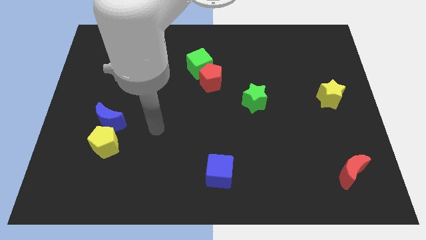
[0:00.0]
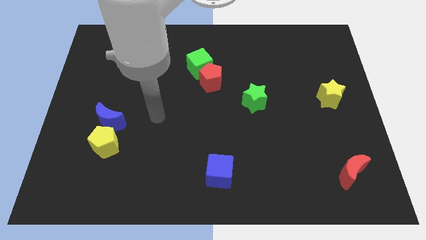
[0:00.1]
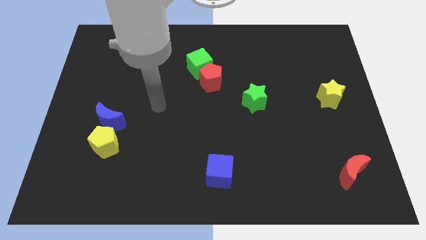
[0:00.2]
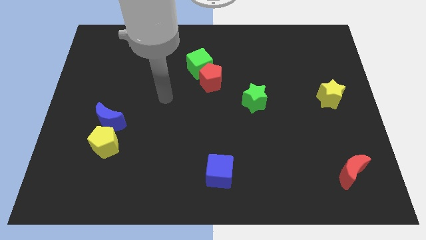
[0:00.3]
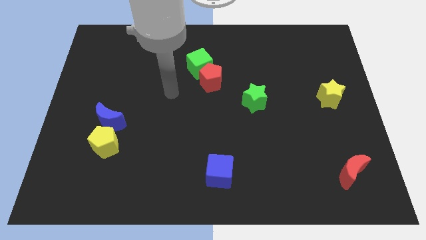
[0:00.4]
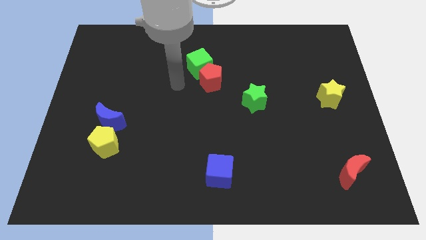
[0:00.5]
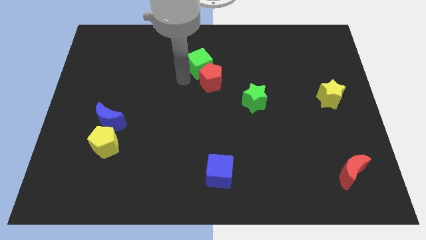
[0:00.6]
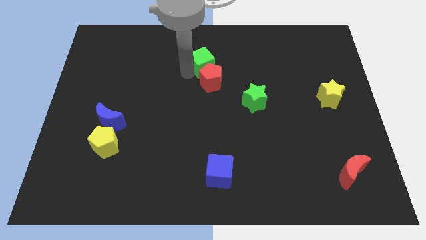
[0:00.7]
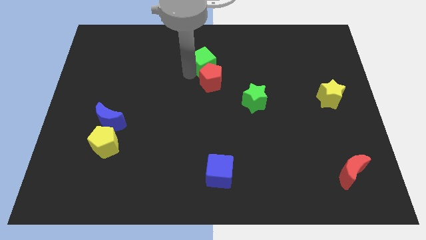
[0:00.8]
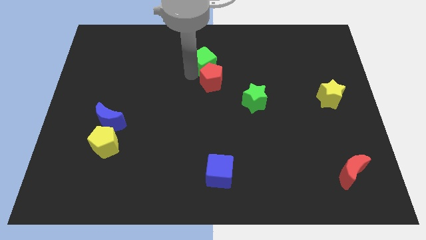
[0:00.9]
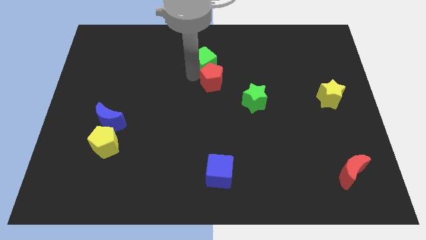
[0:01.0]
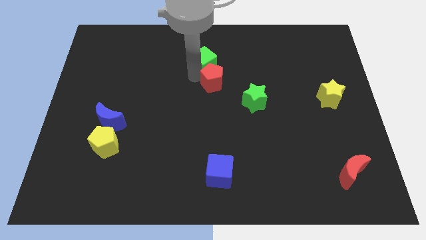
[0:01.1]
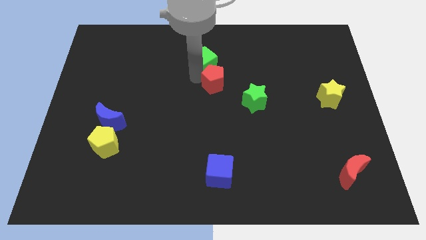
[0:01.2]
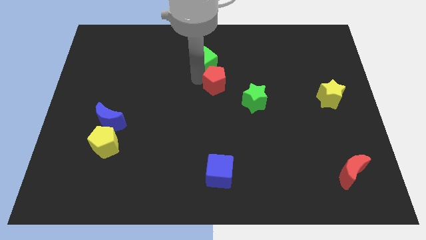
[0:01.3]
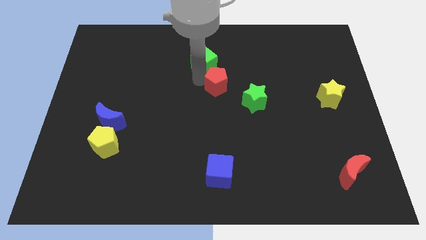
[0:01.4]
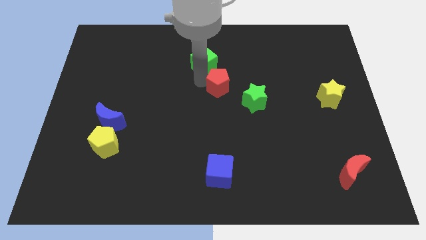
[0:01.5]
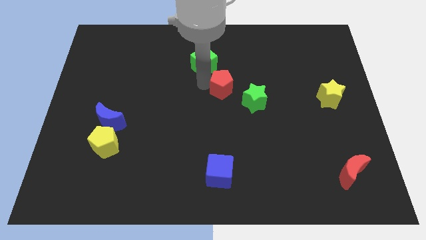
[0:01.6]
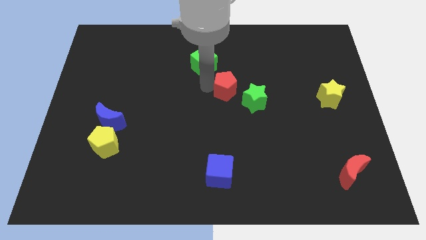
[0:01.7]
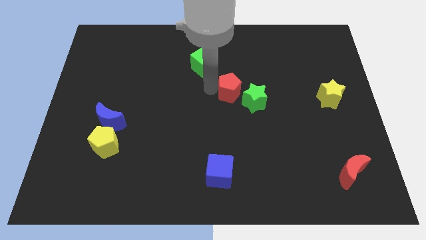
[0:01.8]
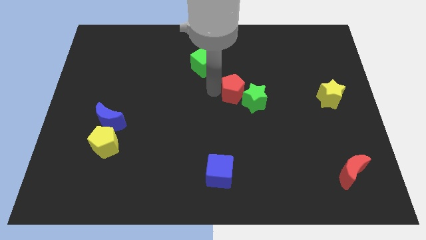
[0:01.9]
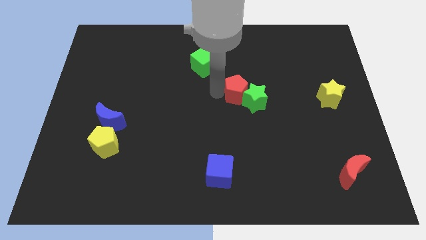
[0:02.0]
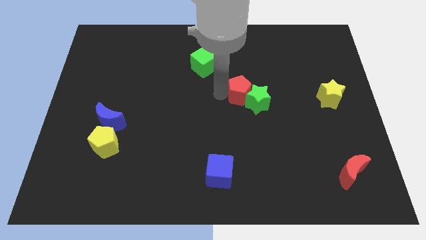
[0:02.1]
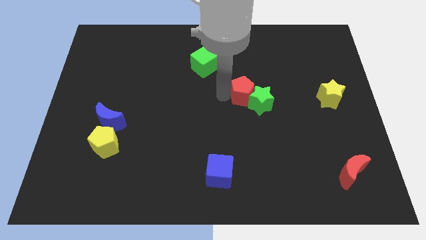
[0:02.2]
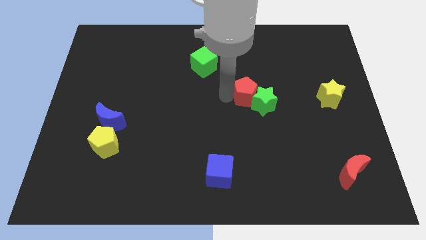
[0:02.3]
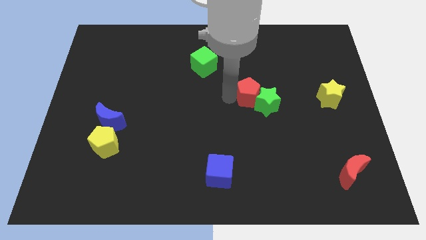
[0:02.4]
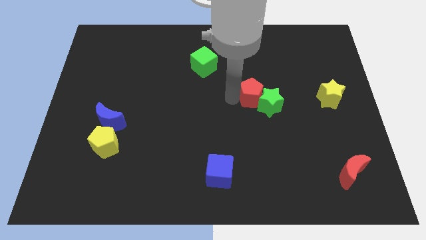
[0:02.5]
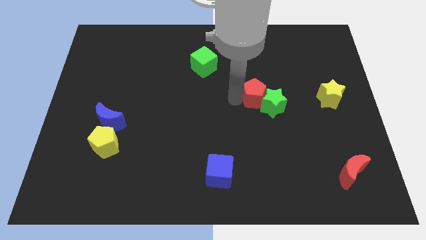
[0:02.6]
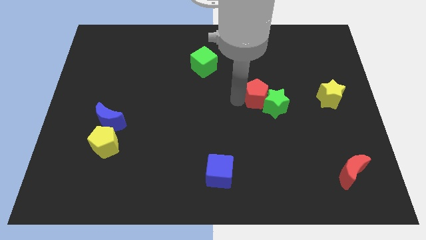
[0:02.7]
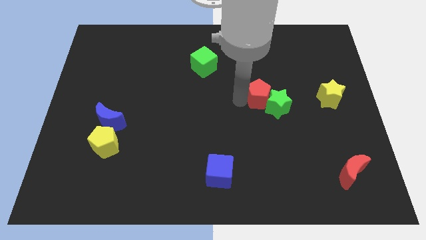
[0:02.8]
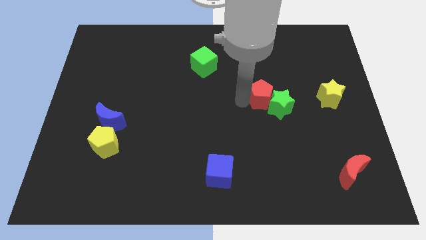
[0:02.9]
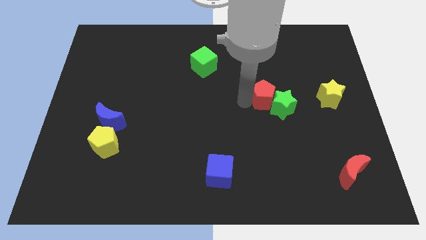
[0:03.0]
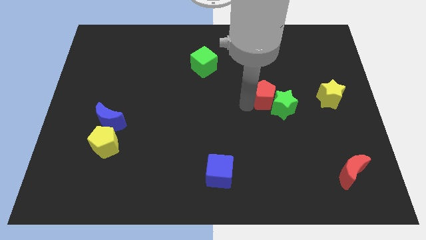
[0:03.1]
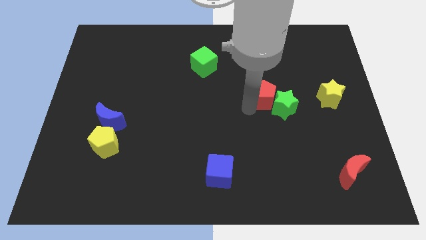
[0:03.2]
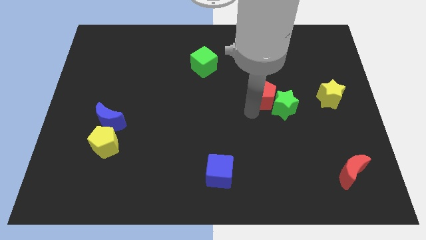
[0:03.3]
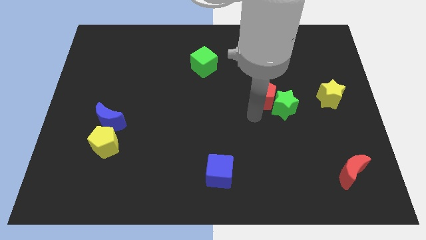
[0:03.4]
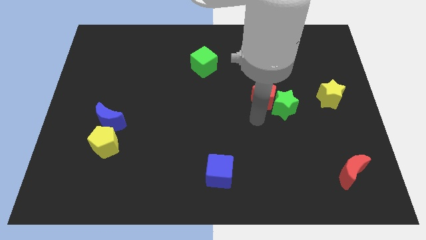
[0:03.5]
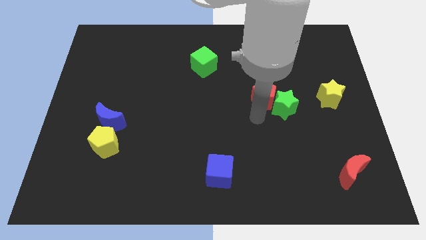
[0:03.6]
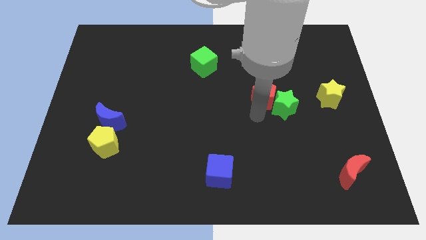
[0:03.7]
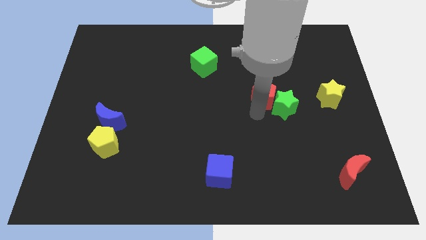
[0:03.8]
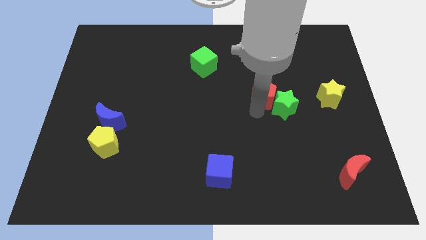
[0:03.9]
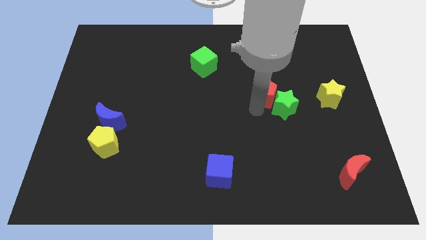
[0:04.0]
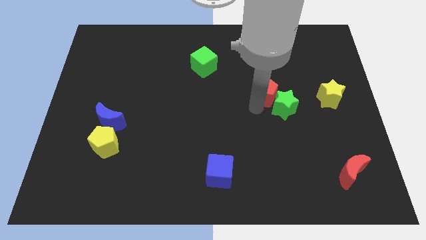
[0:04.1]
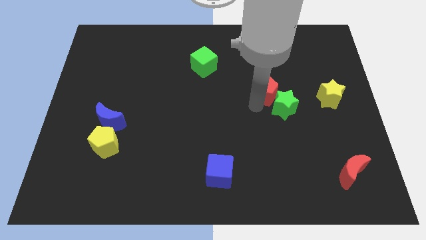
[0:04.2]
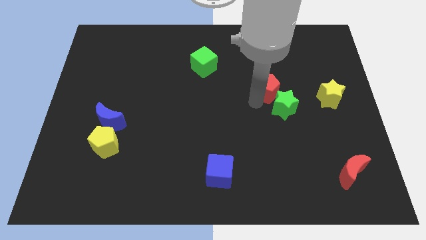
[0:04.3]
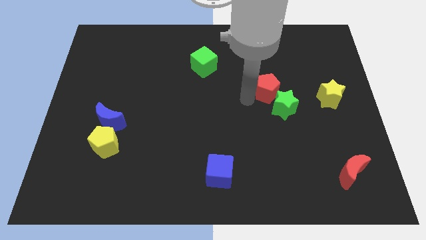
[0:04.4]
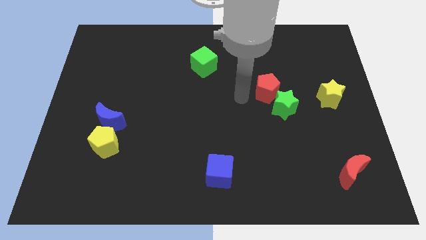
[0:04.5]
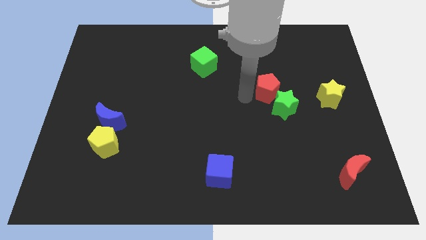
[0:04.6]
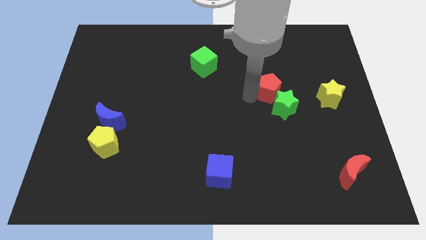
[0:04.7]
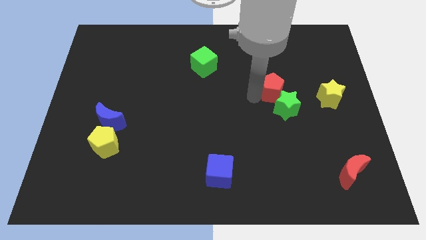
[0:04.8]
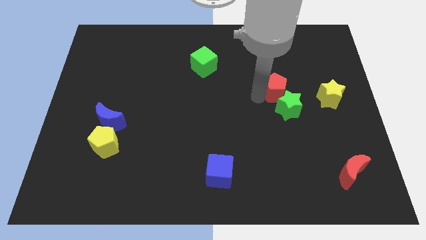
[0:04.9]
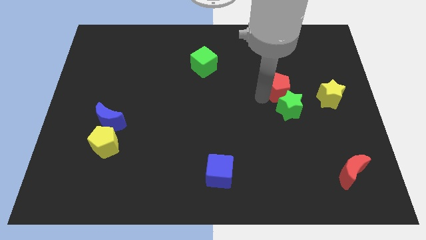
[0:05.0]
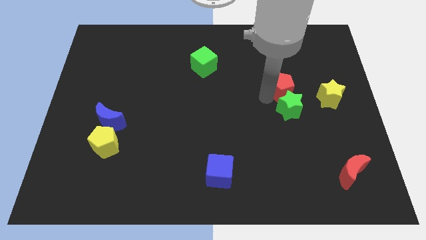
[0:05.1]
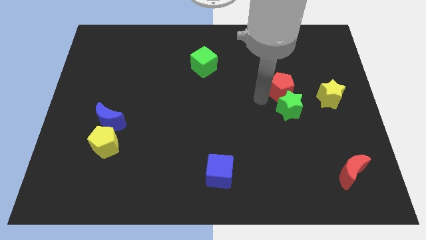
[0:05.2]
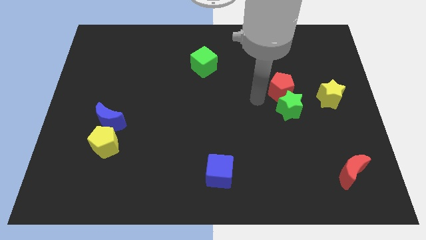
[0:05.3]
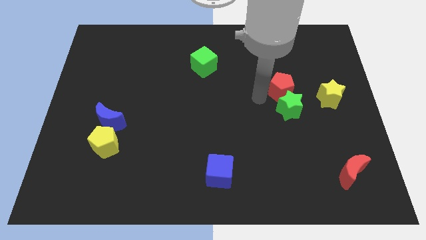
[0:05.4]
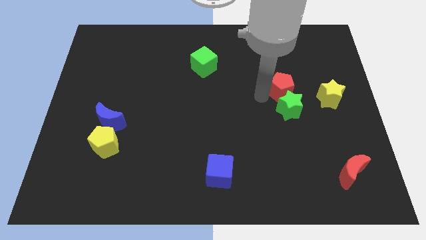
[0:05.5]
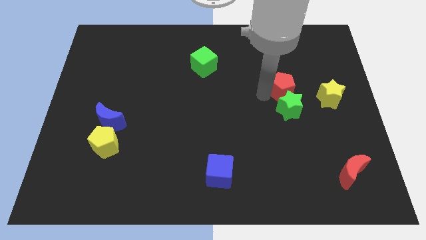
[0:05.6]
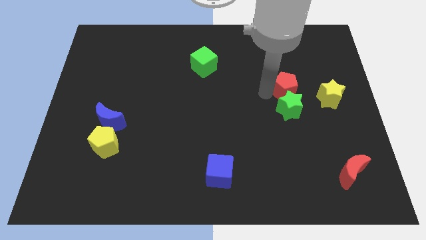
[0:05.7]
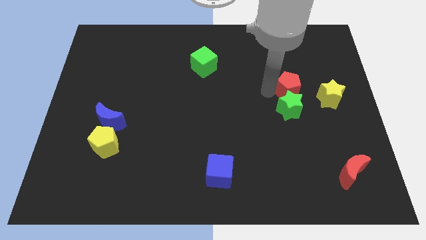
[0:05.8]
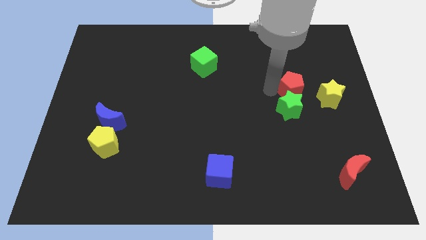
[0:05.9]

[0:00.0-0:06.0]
put the red pentagon to the top left side of the yellow star

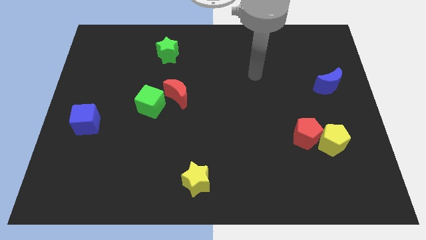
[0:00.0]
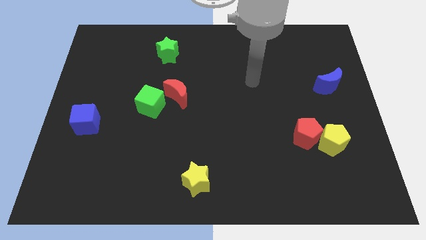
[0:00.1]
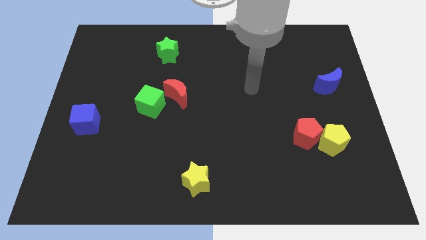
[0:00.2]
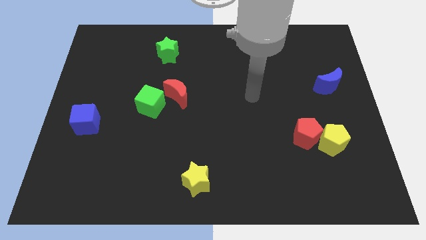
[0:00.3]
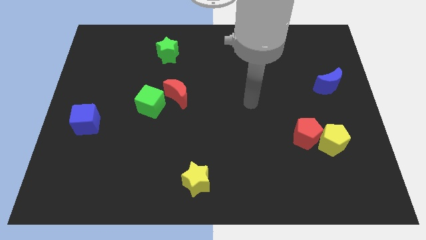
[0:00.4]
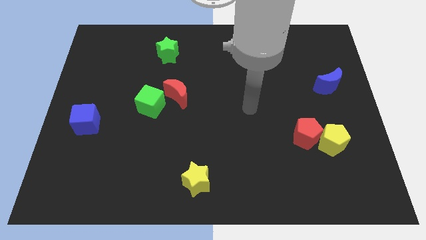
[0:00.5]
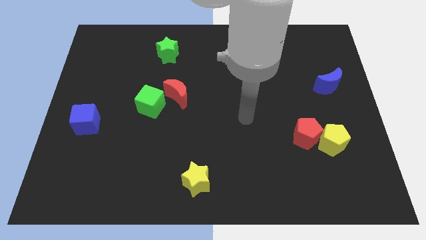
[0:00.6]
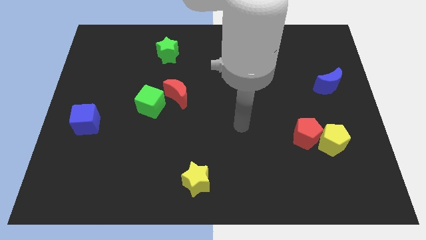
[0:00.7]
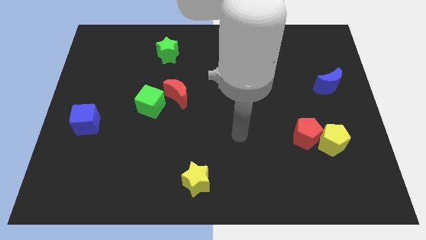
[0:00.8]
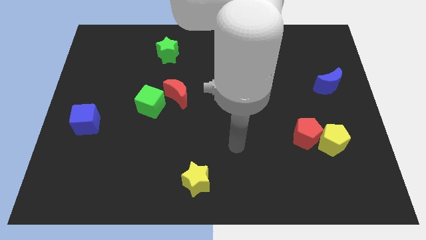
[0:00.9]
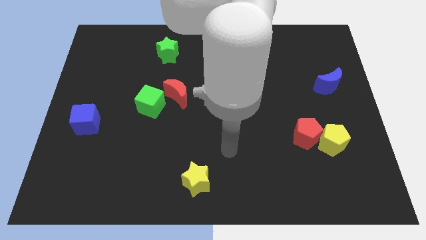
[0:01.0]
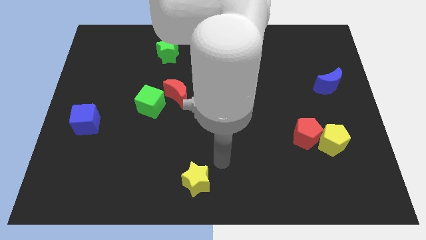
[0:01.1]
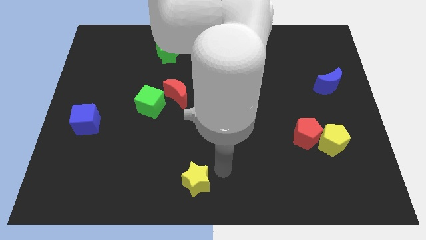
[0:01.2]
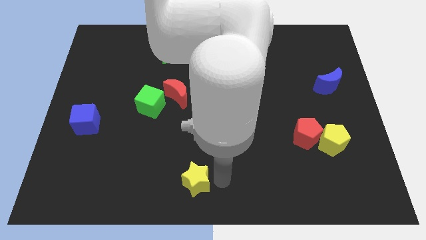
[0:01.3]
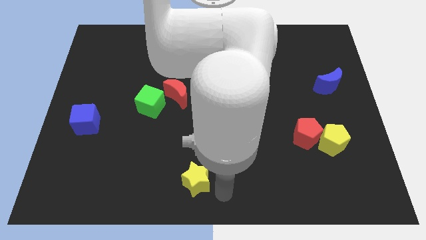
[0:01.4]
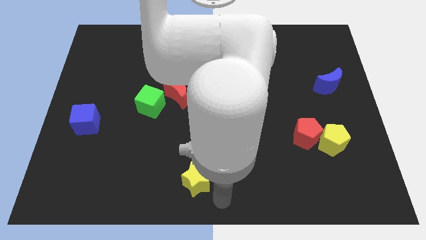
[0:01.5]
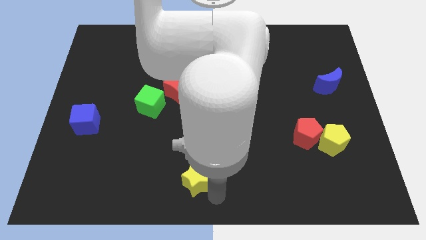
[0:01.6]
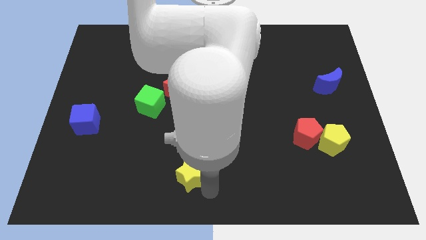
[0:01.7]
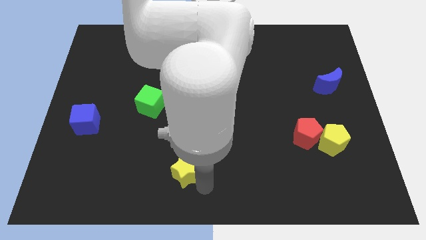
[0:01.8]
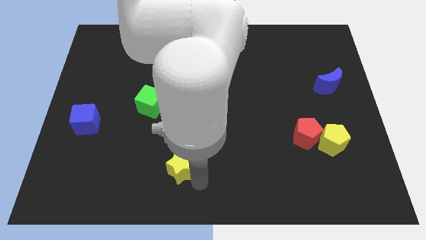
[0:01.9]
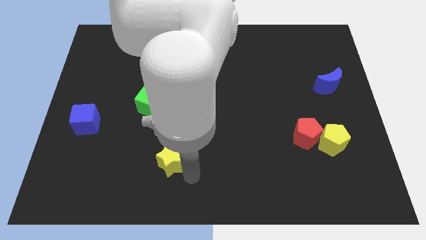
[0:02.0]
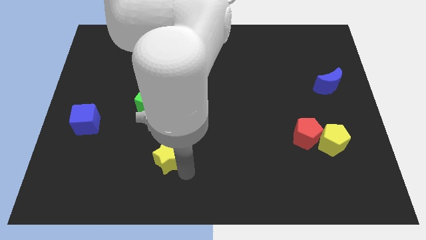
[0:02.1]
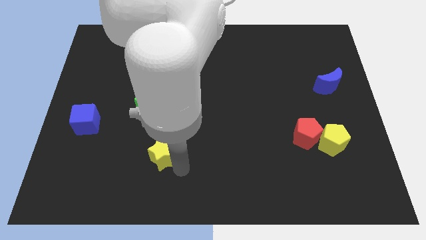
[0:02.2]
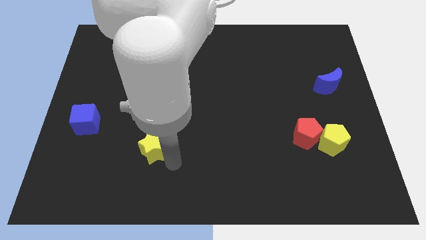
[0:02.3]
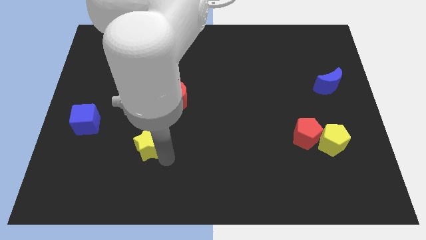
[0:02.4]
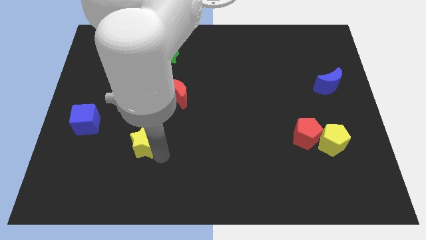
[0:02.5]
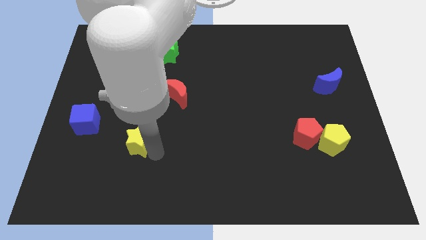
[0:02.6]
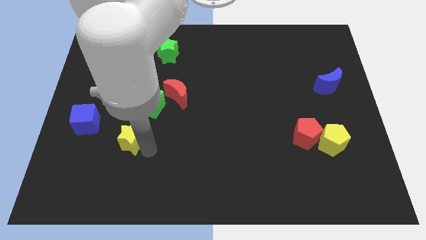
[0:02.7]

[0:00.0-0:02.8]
put the yellow star right of the blue cube
